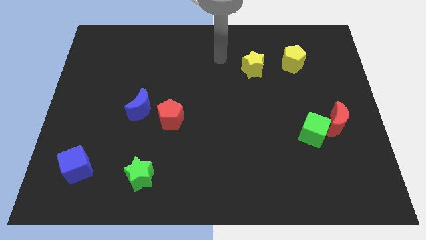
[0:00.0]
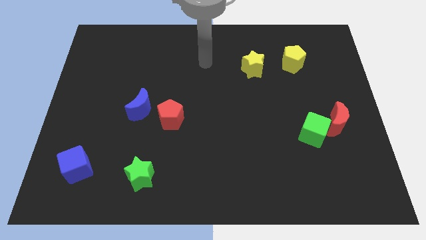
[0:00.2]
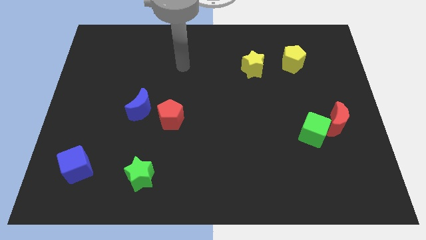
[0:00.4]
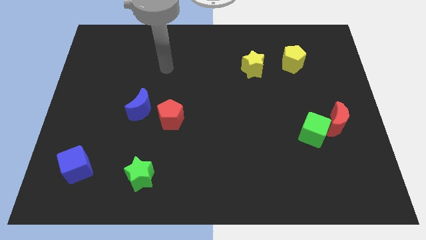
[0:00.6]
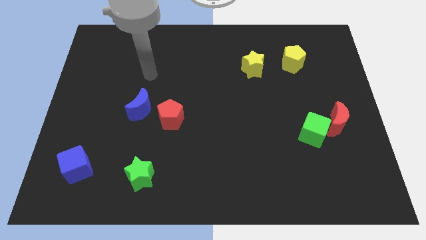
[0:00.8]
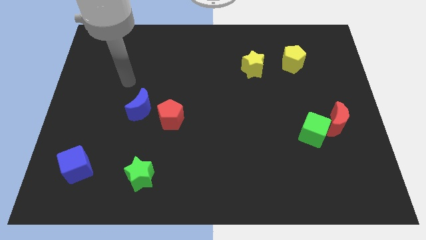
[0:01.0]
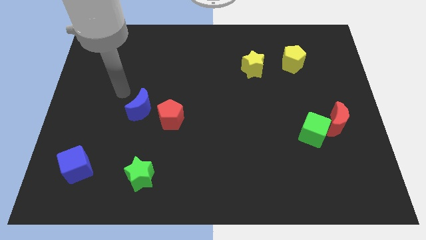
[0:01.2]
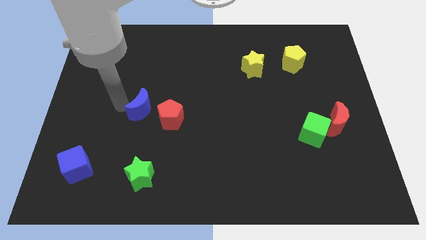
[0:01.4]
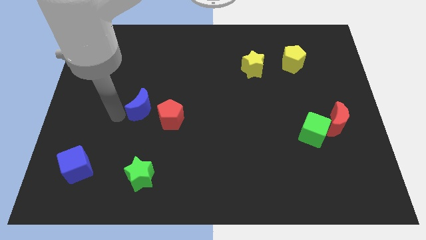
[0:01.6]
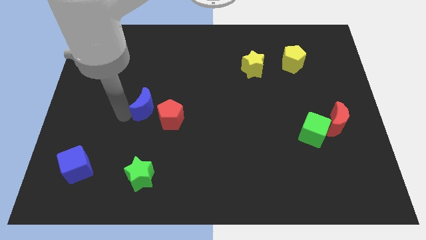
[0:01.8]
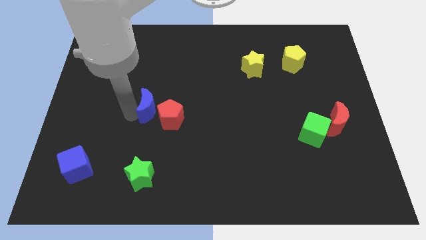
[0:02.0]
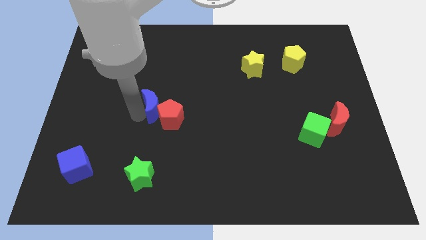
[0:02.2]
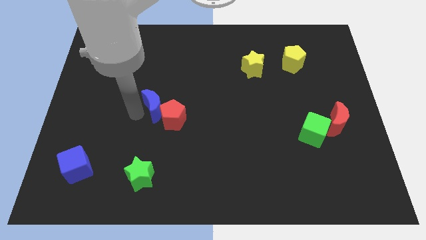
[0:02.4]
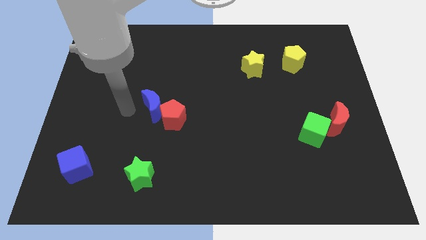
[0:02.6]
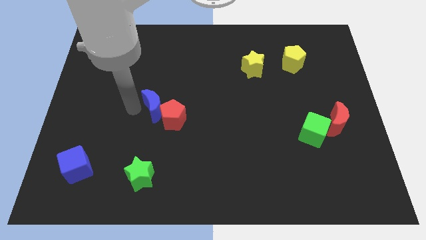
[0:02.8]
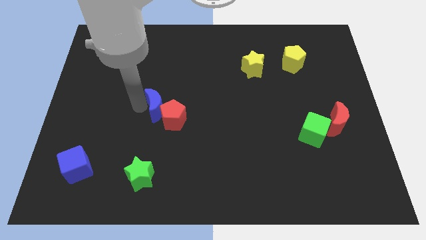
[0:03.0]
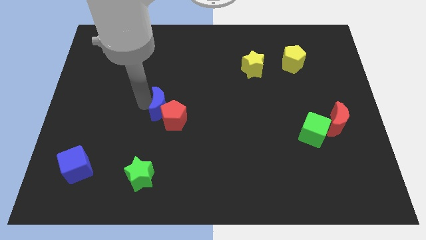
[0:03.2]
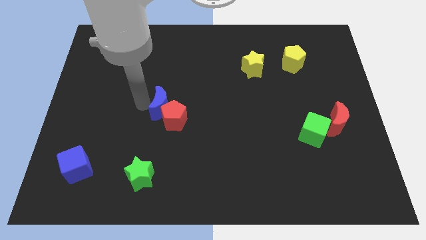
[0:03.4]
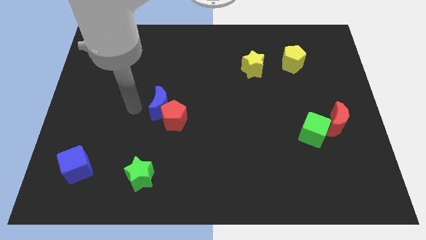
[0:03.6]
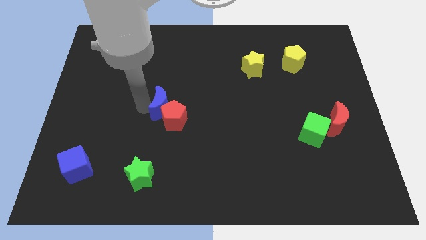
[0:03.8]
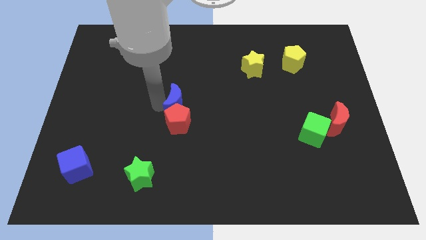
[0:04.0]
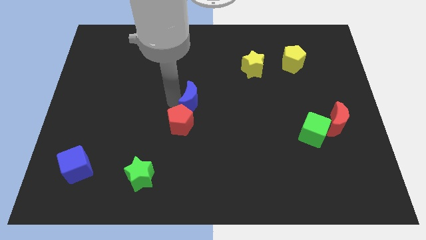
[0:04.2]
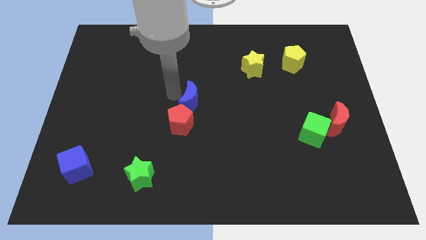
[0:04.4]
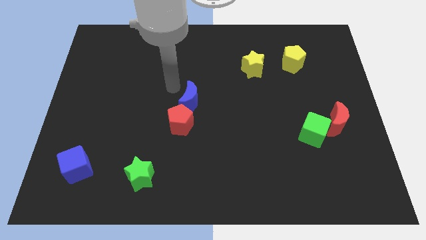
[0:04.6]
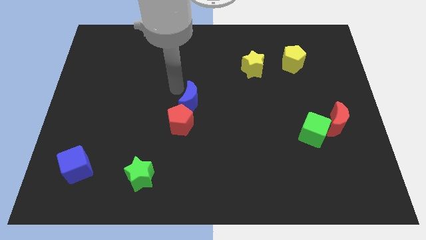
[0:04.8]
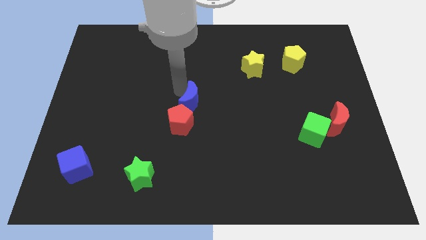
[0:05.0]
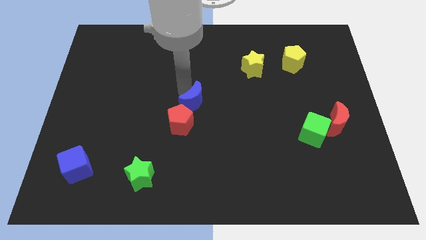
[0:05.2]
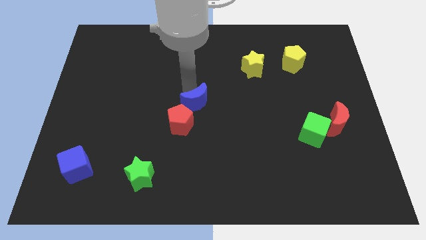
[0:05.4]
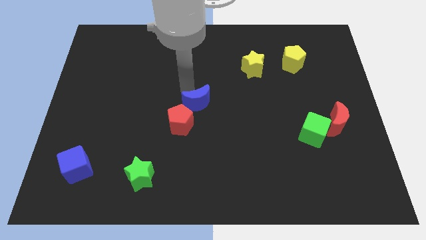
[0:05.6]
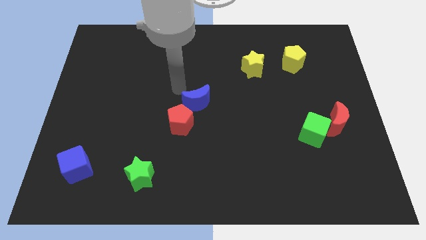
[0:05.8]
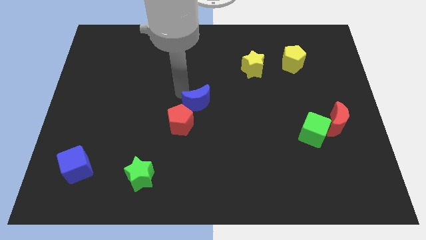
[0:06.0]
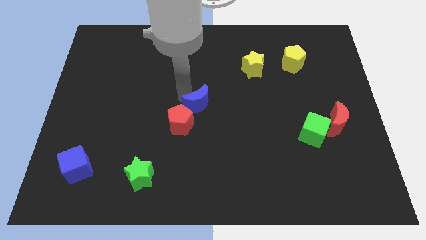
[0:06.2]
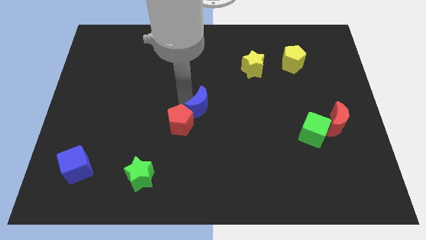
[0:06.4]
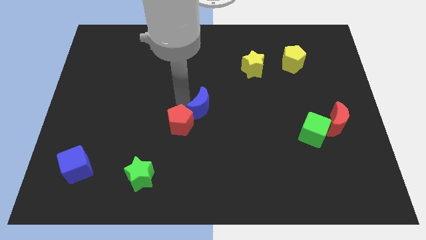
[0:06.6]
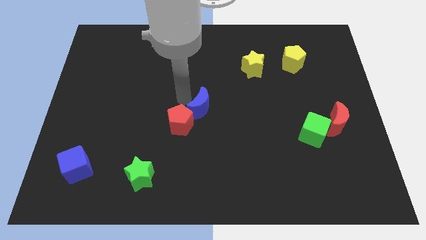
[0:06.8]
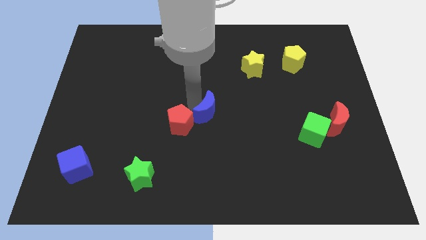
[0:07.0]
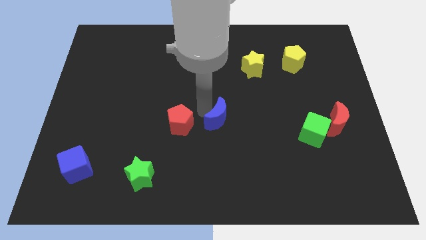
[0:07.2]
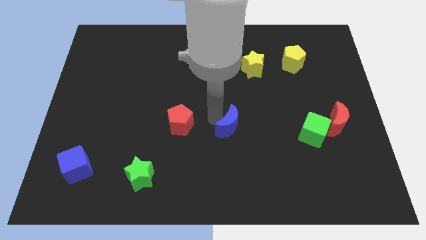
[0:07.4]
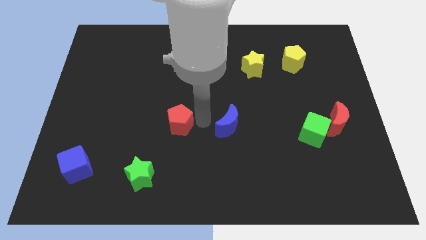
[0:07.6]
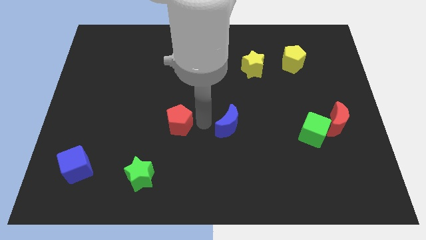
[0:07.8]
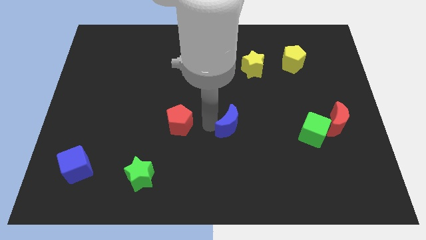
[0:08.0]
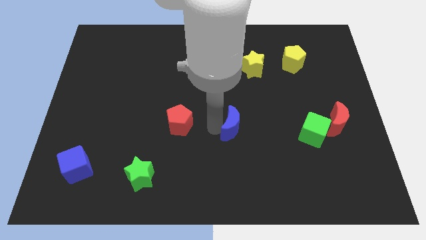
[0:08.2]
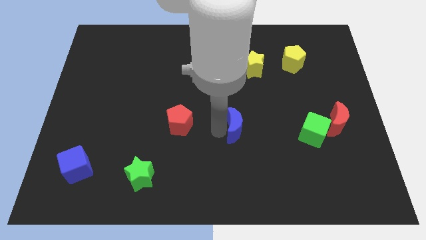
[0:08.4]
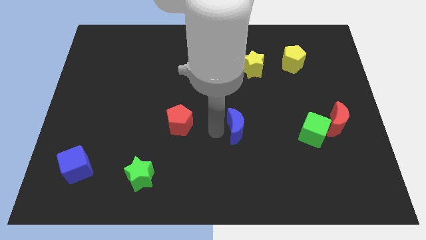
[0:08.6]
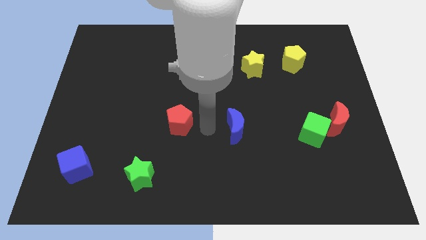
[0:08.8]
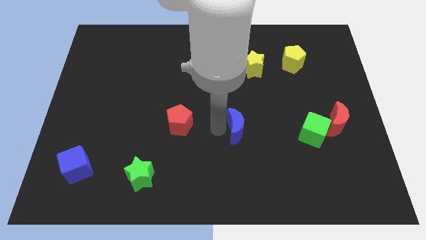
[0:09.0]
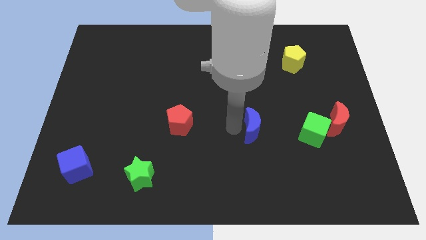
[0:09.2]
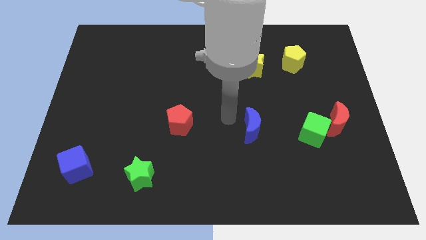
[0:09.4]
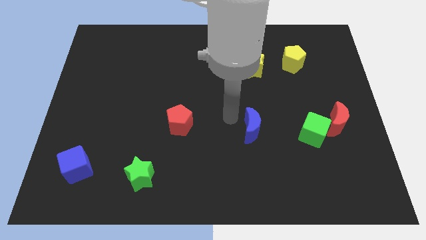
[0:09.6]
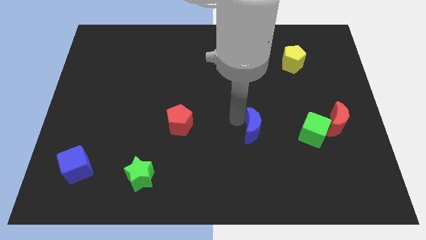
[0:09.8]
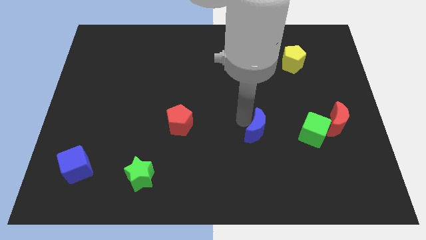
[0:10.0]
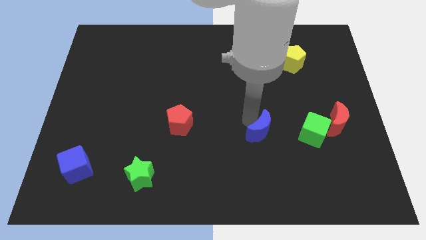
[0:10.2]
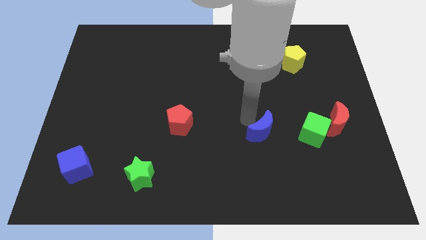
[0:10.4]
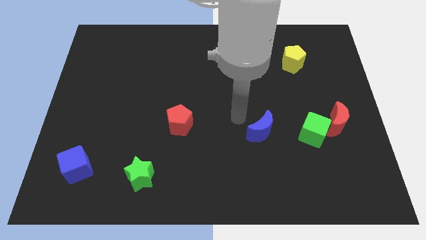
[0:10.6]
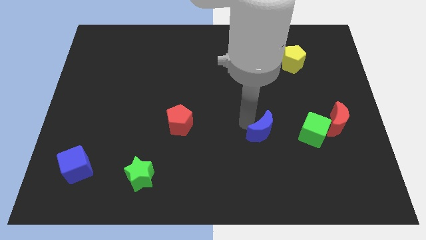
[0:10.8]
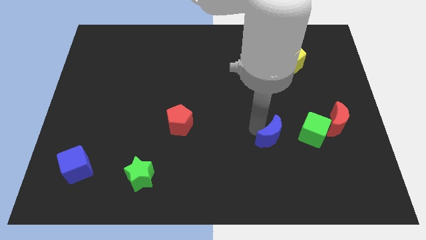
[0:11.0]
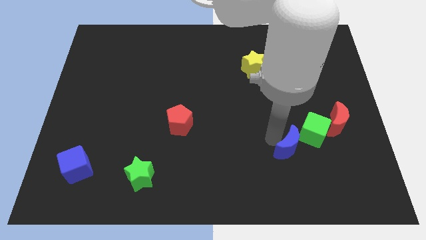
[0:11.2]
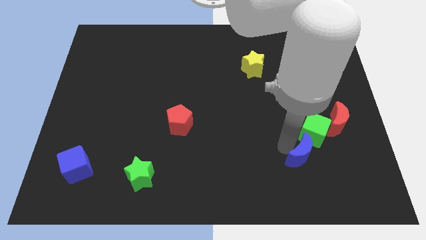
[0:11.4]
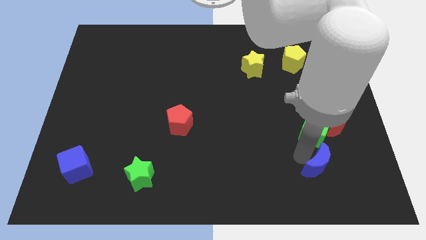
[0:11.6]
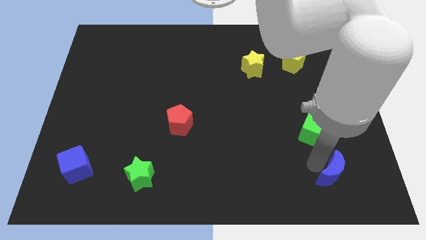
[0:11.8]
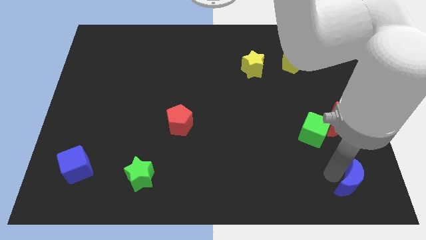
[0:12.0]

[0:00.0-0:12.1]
push the blue moon to the bottom right
